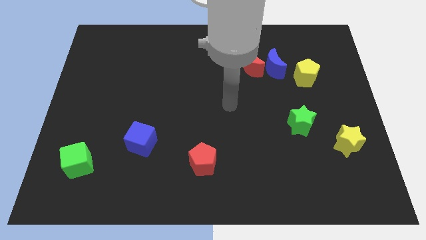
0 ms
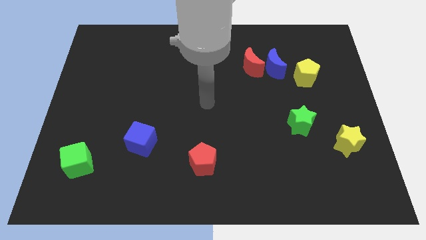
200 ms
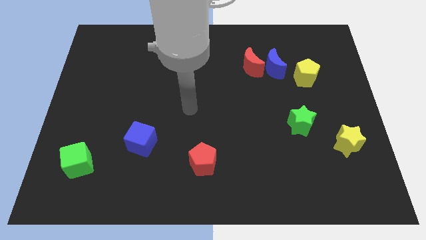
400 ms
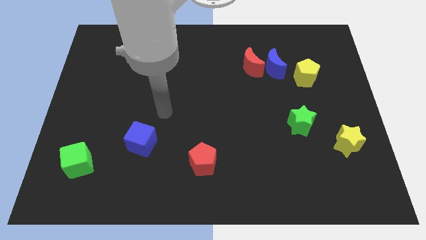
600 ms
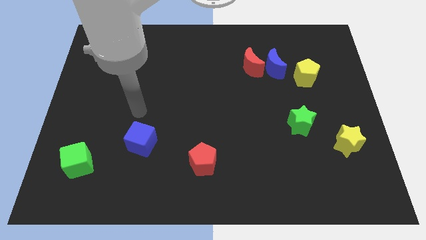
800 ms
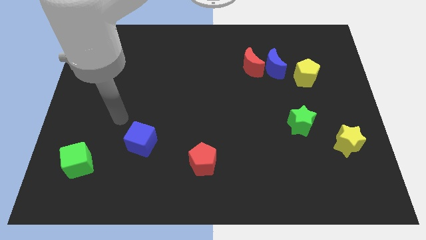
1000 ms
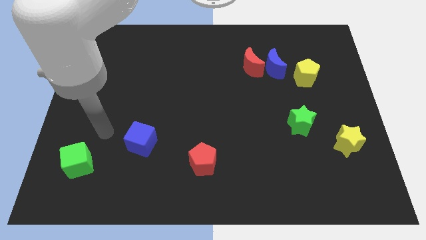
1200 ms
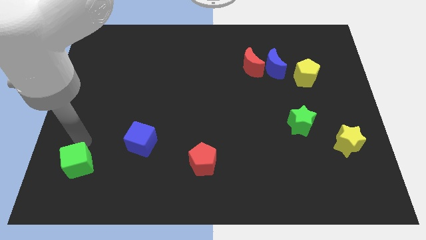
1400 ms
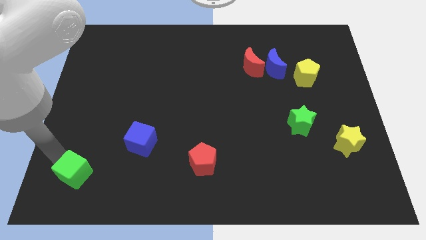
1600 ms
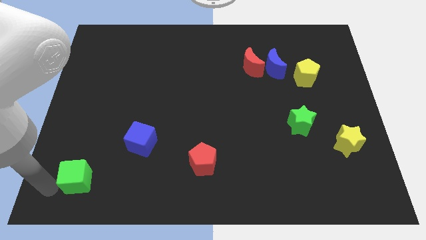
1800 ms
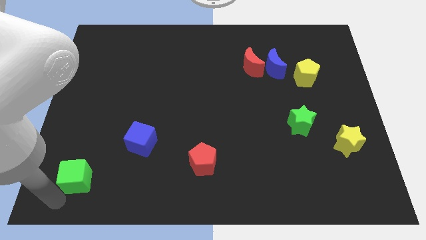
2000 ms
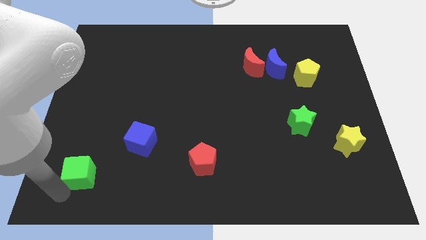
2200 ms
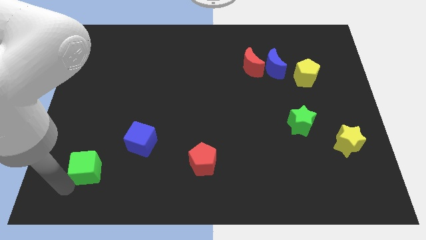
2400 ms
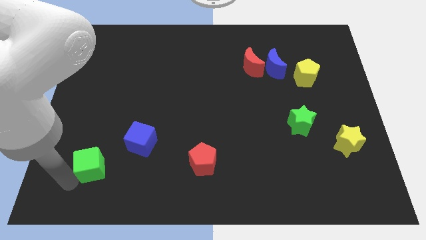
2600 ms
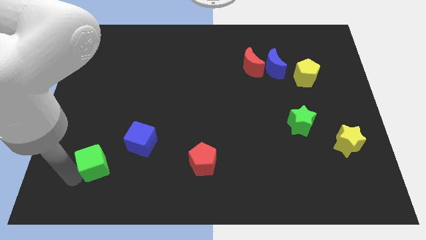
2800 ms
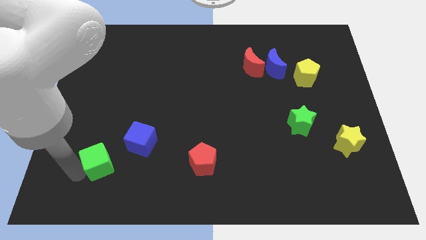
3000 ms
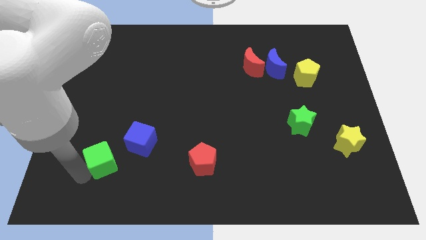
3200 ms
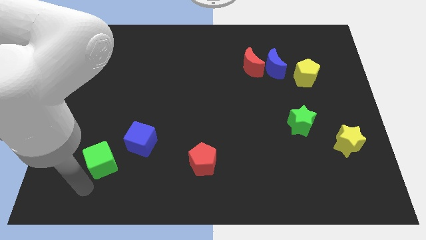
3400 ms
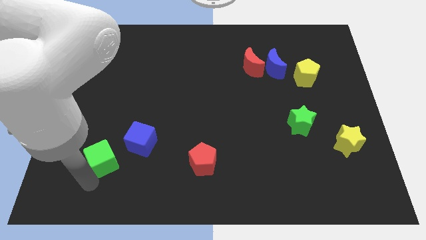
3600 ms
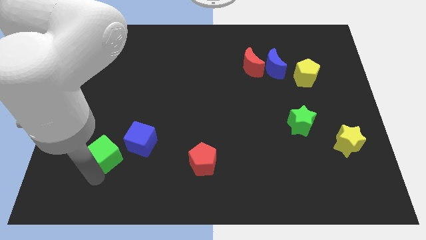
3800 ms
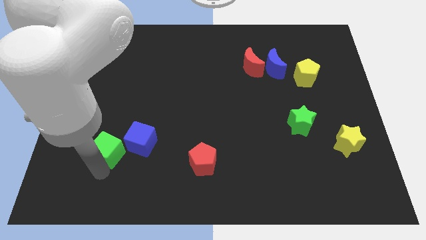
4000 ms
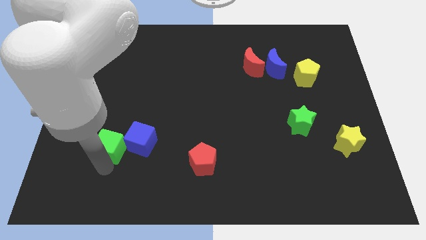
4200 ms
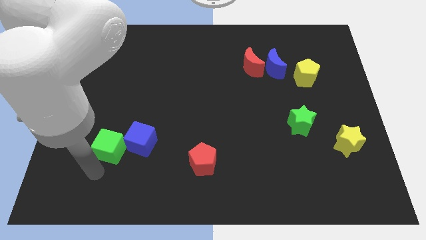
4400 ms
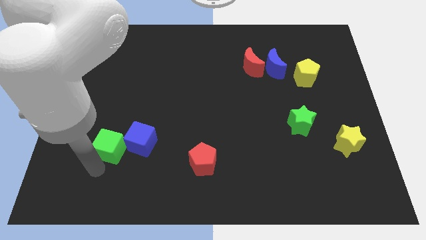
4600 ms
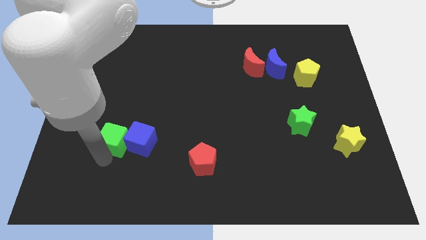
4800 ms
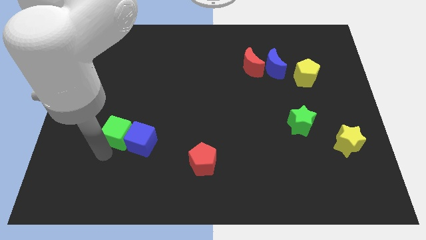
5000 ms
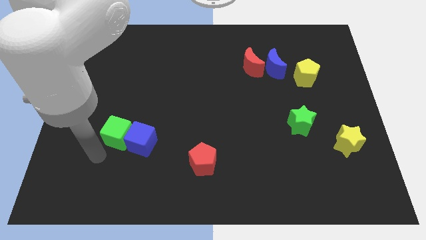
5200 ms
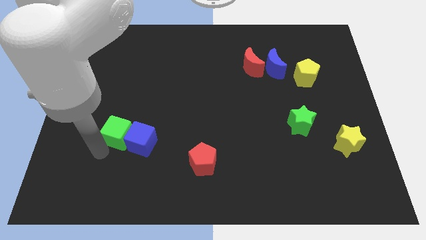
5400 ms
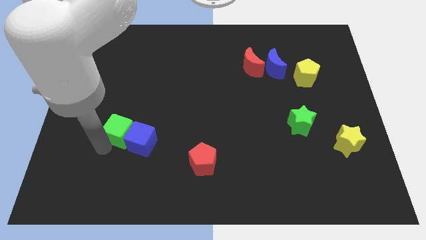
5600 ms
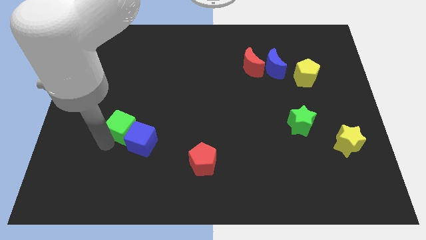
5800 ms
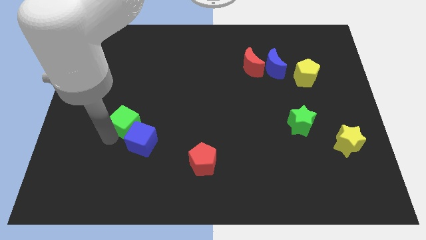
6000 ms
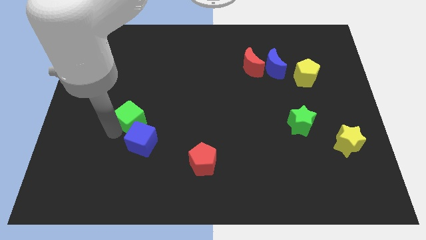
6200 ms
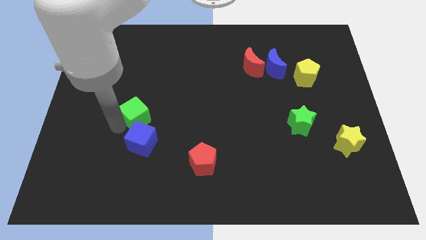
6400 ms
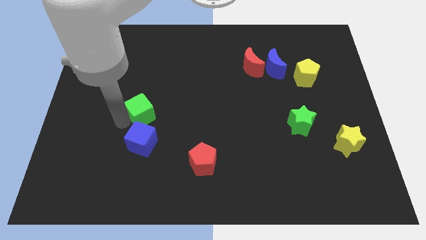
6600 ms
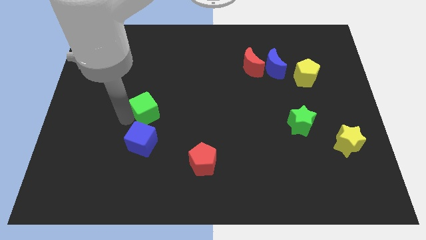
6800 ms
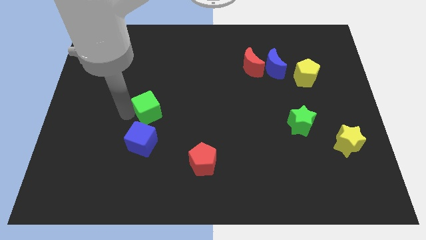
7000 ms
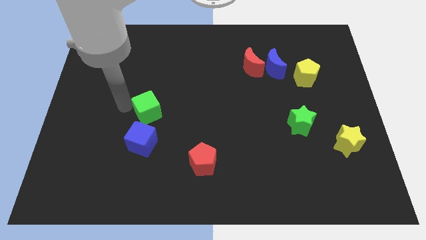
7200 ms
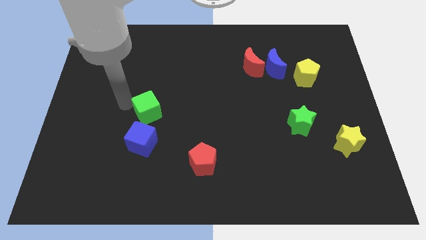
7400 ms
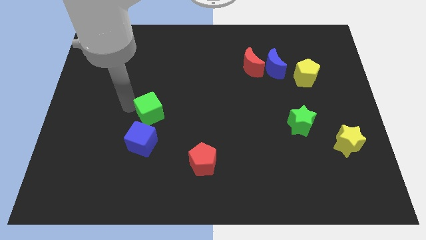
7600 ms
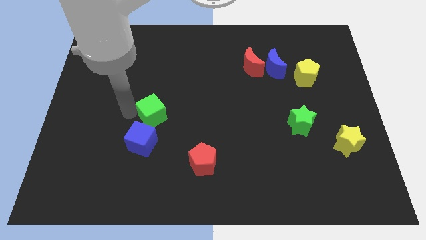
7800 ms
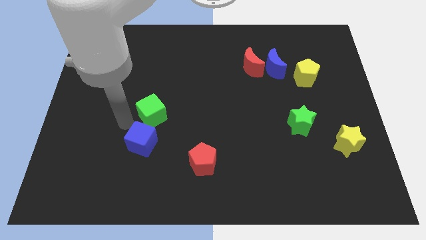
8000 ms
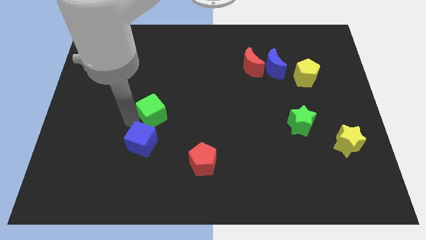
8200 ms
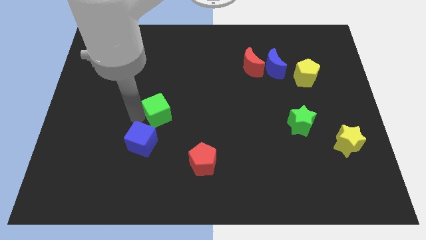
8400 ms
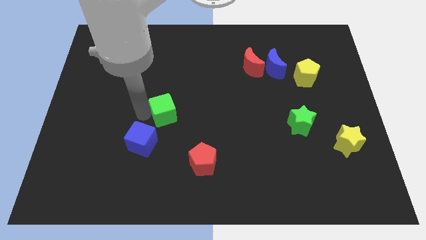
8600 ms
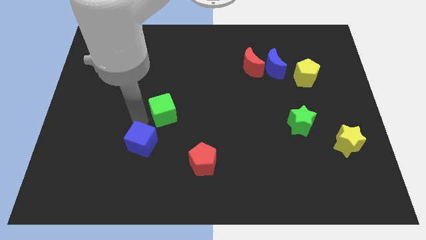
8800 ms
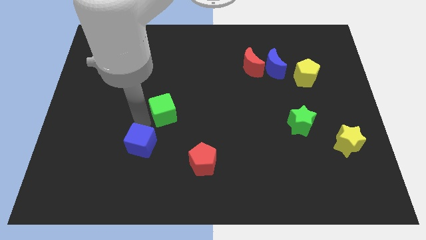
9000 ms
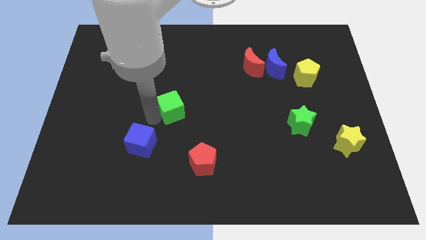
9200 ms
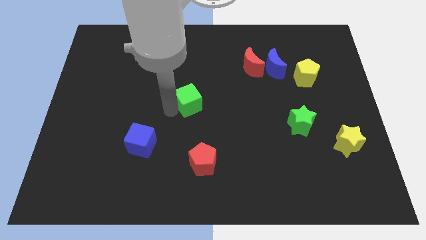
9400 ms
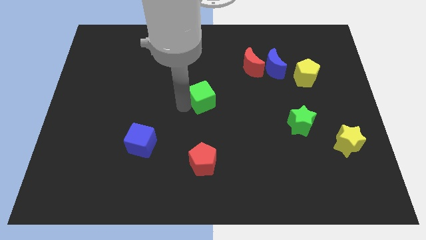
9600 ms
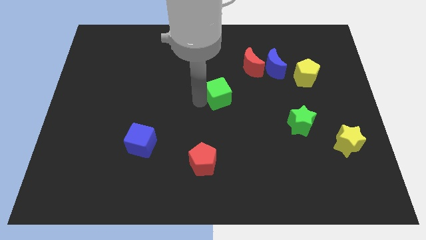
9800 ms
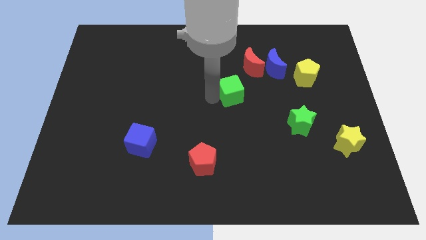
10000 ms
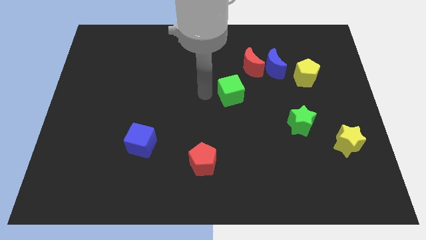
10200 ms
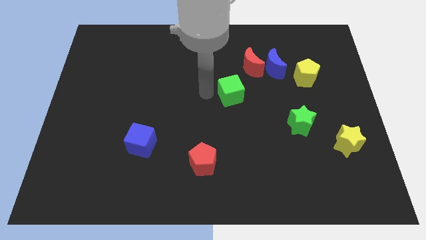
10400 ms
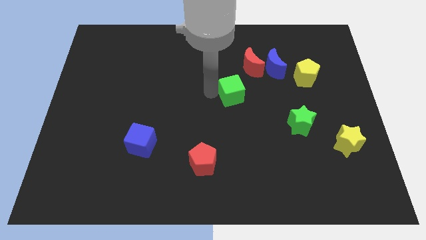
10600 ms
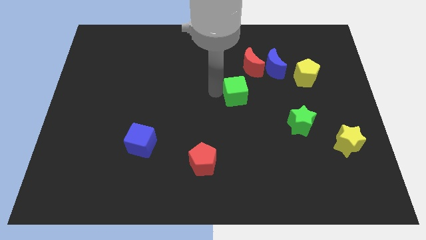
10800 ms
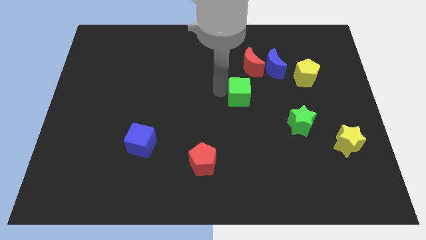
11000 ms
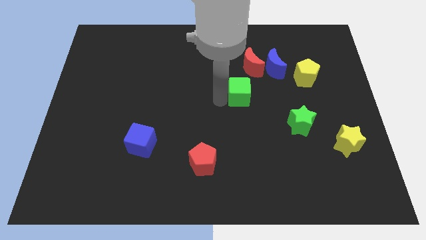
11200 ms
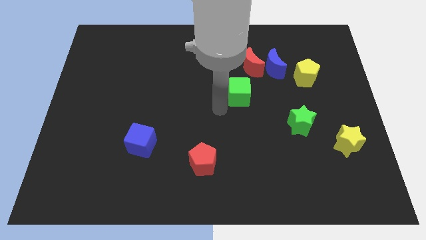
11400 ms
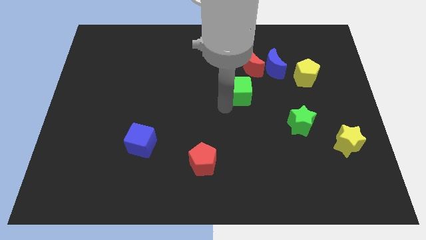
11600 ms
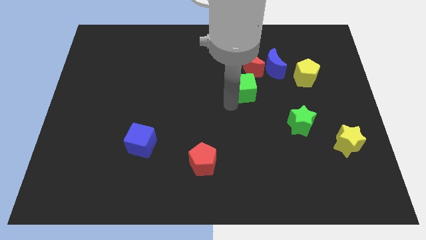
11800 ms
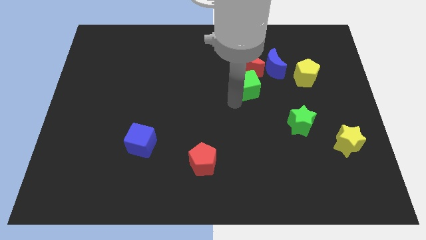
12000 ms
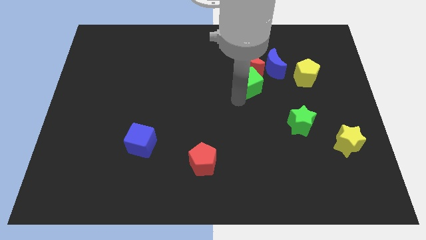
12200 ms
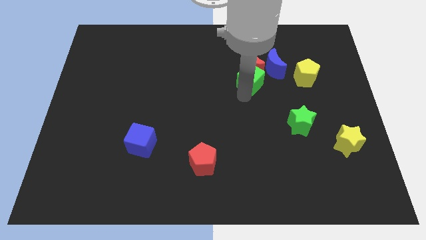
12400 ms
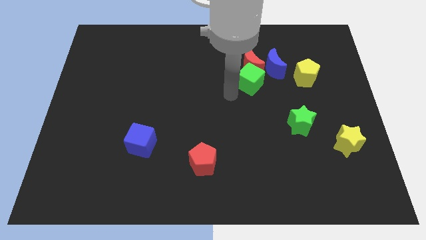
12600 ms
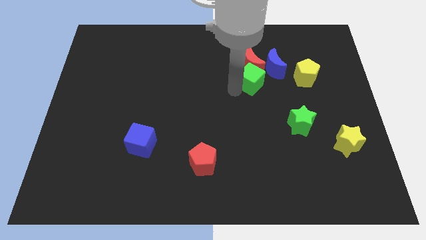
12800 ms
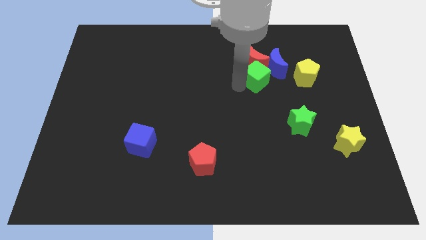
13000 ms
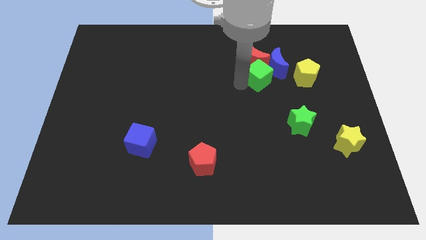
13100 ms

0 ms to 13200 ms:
move the green cube close to the blue moon

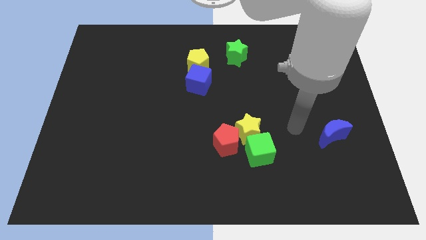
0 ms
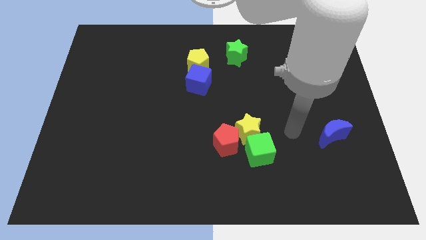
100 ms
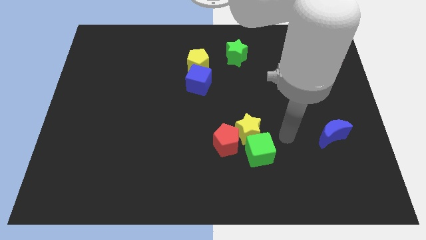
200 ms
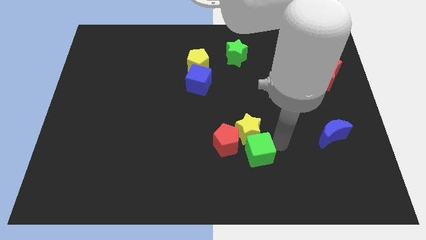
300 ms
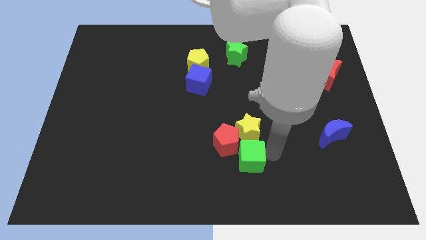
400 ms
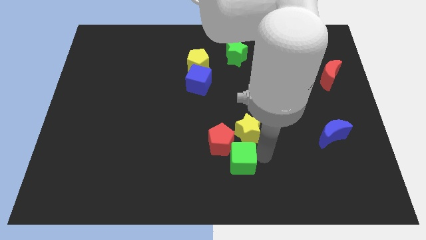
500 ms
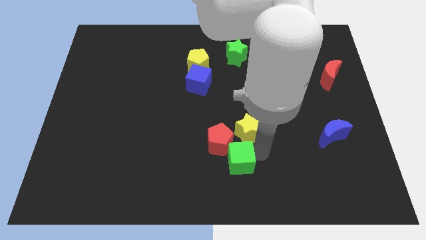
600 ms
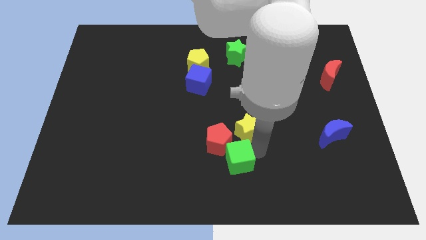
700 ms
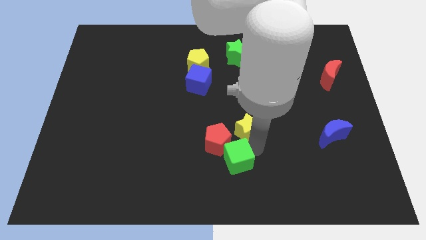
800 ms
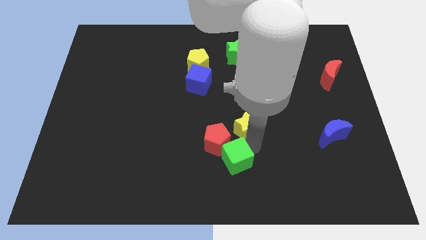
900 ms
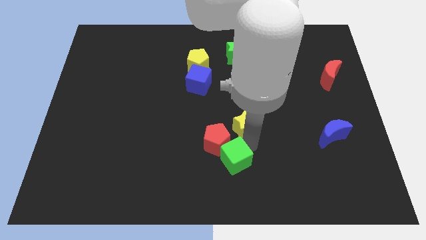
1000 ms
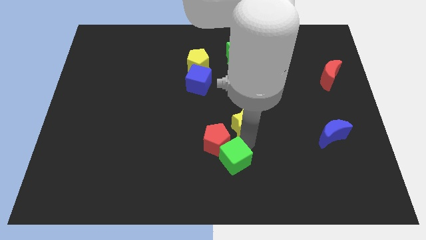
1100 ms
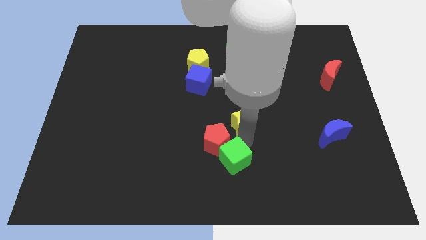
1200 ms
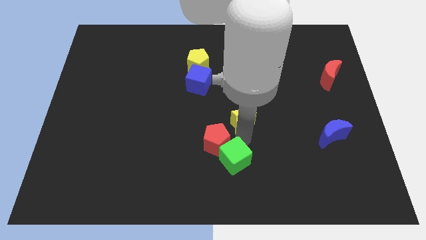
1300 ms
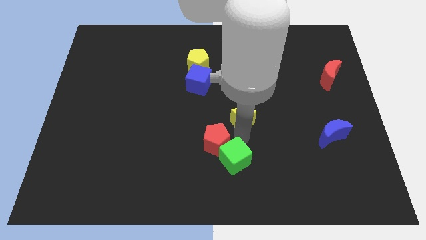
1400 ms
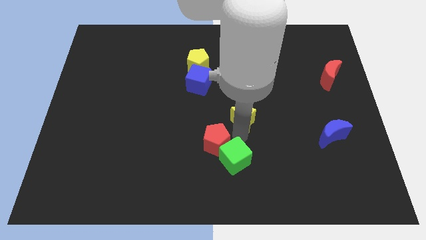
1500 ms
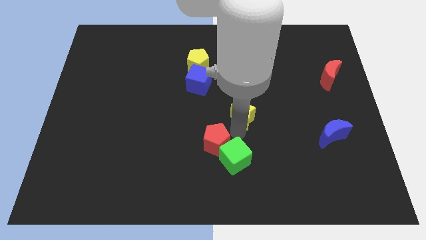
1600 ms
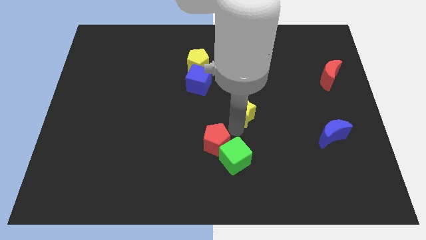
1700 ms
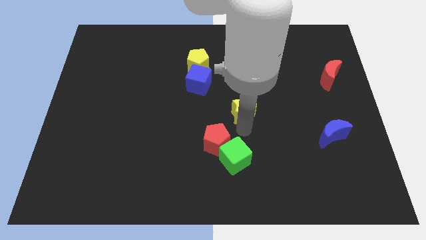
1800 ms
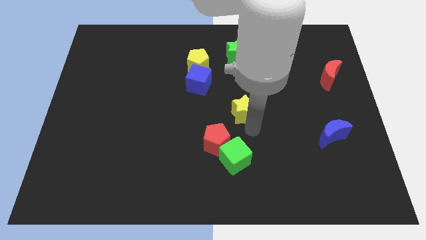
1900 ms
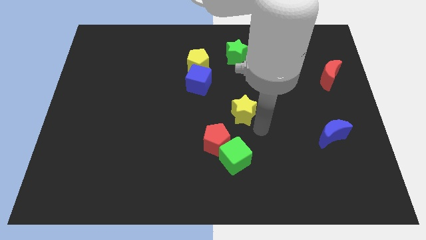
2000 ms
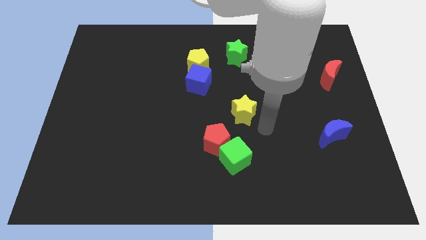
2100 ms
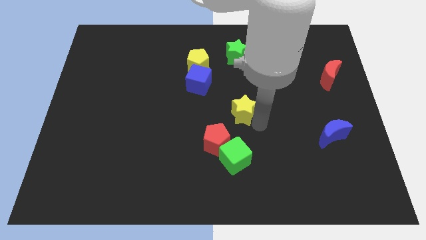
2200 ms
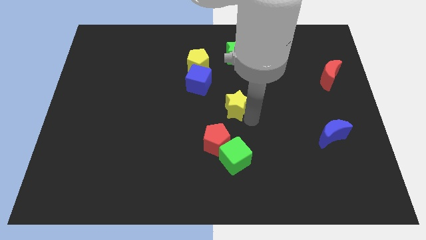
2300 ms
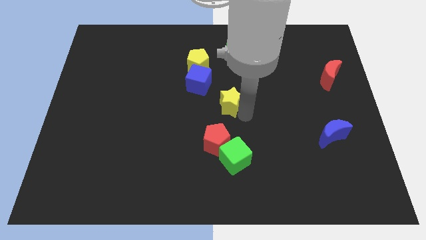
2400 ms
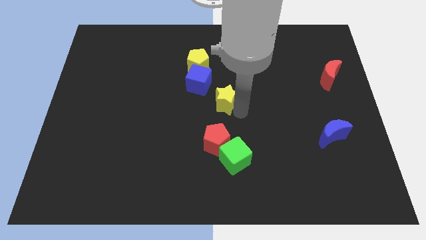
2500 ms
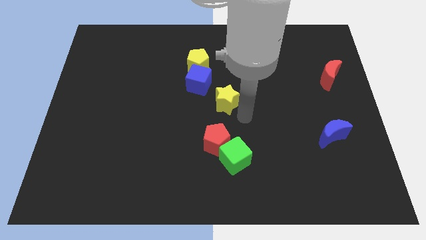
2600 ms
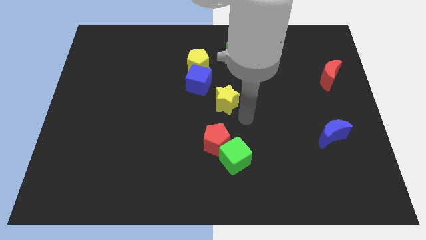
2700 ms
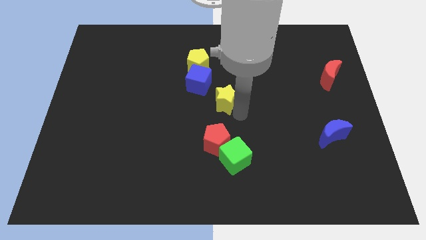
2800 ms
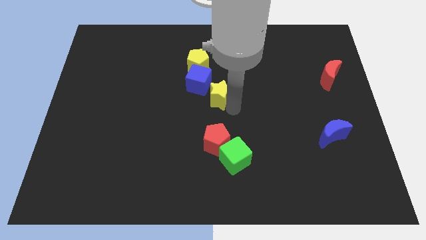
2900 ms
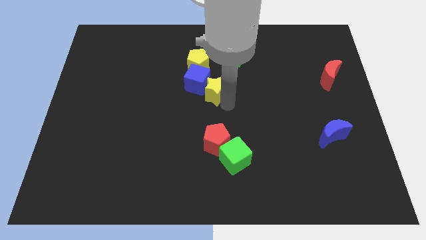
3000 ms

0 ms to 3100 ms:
push the yellow star to the blue cube
